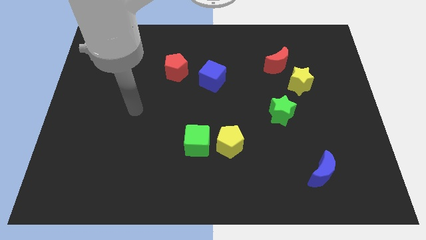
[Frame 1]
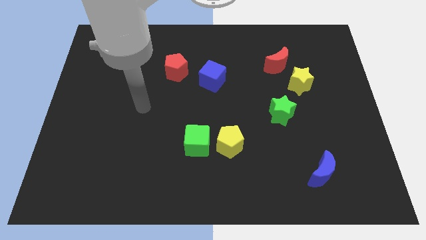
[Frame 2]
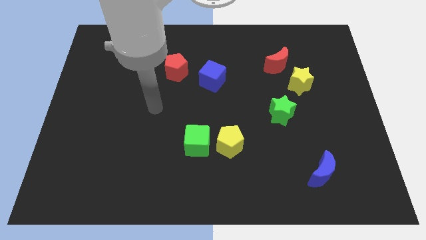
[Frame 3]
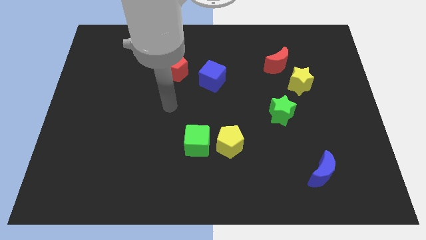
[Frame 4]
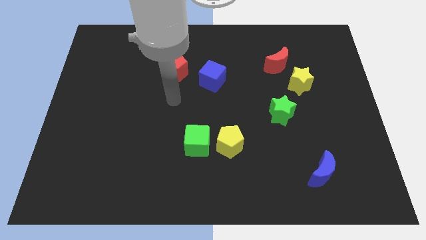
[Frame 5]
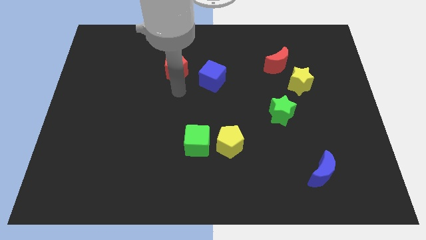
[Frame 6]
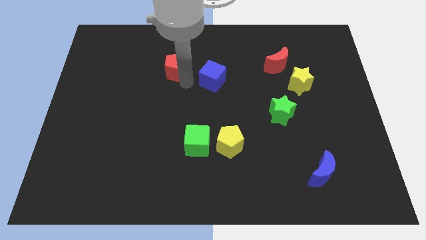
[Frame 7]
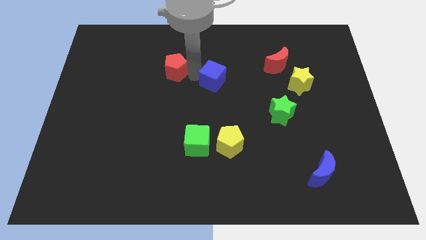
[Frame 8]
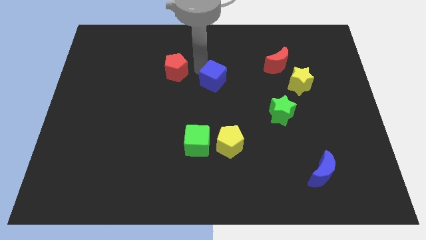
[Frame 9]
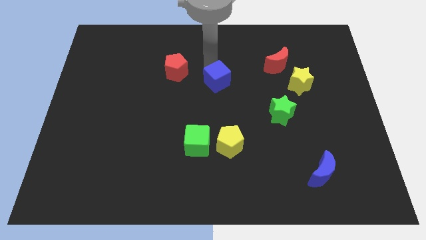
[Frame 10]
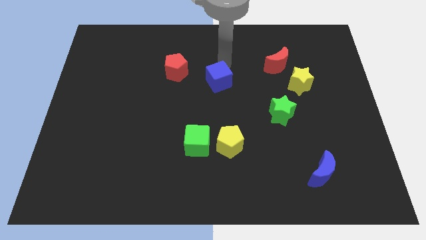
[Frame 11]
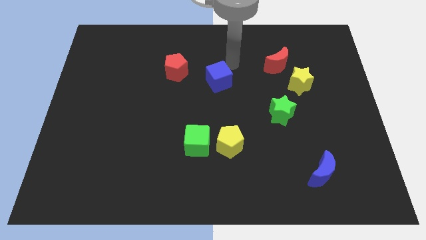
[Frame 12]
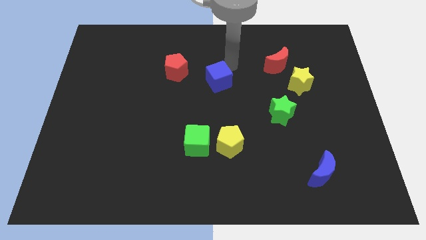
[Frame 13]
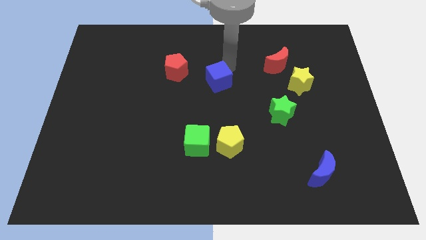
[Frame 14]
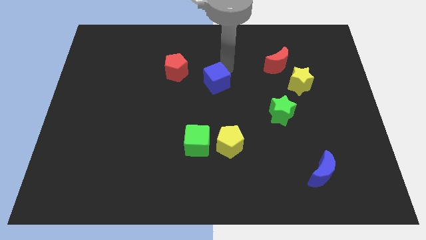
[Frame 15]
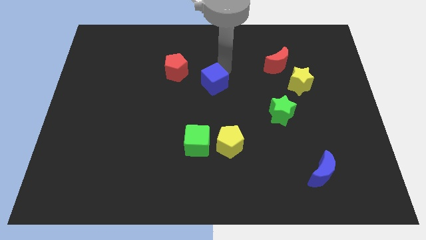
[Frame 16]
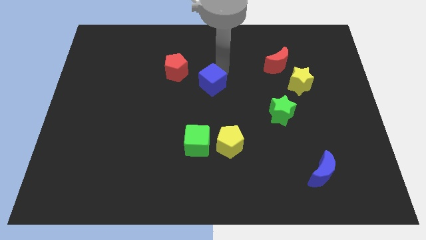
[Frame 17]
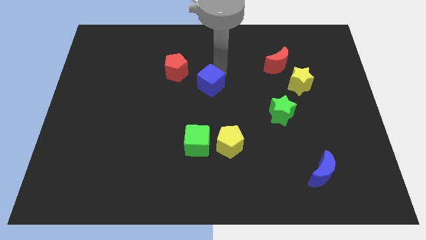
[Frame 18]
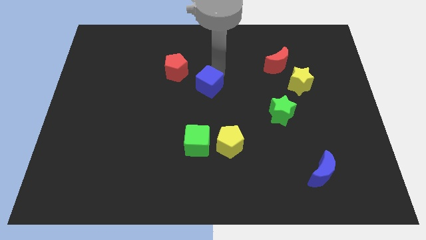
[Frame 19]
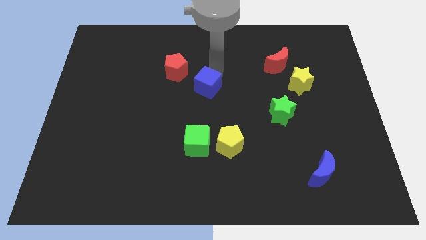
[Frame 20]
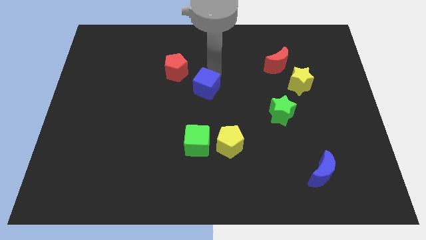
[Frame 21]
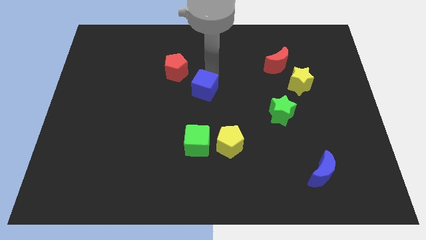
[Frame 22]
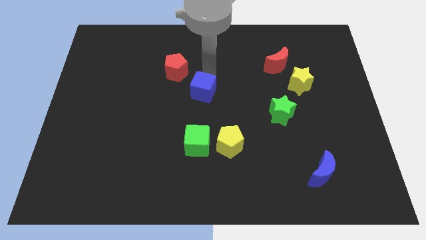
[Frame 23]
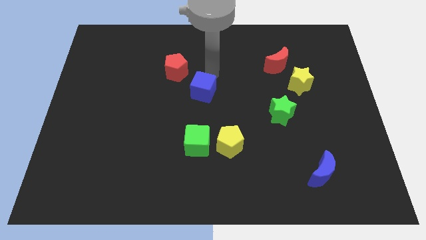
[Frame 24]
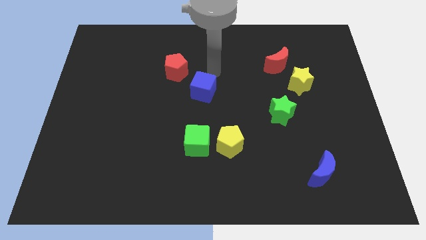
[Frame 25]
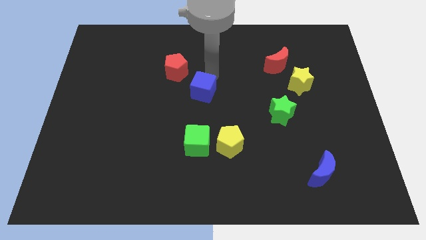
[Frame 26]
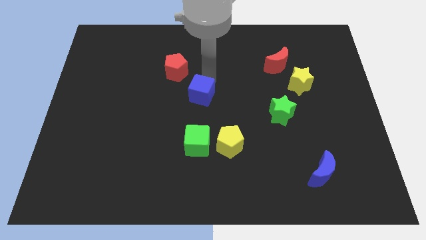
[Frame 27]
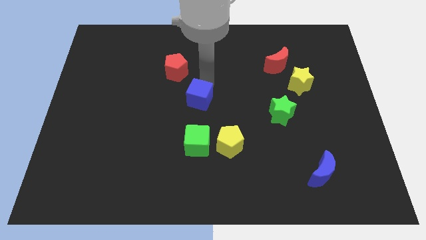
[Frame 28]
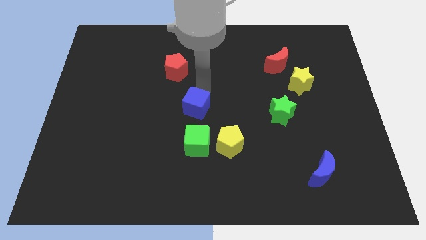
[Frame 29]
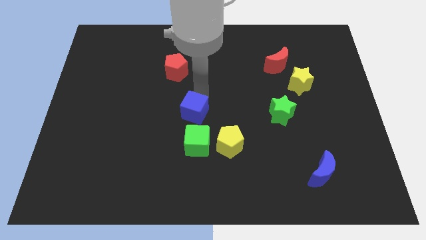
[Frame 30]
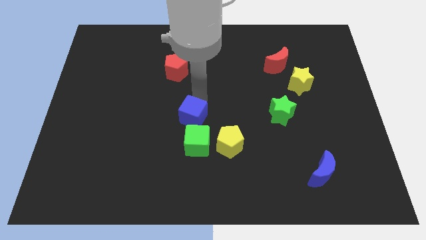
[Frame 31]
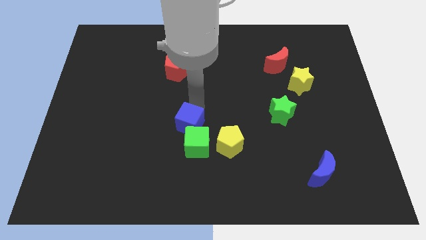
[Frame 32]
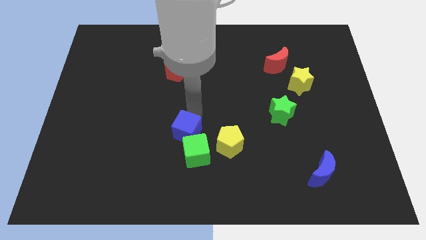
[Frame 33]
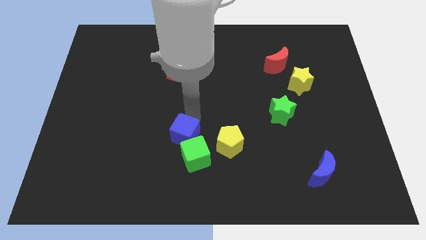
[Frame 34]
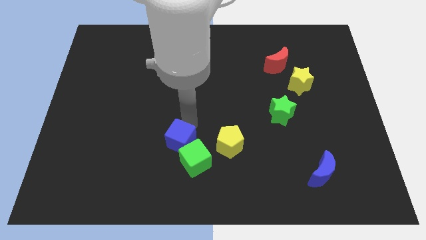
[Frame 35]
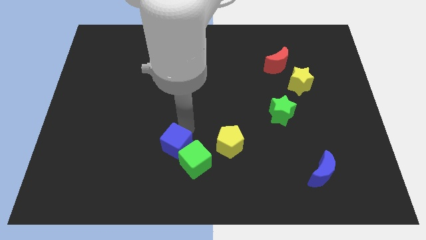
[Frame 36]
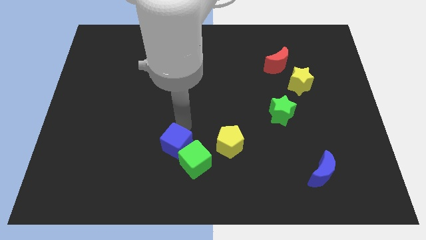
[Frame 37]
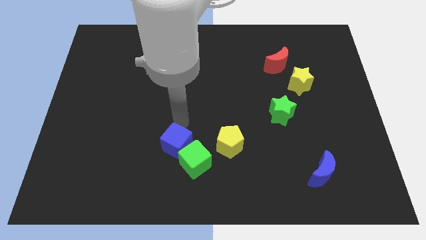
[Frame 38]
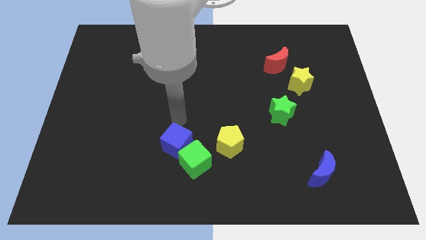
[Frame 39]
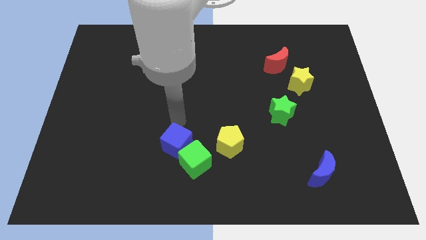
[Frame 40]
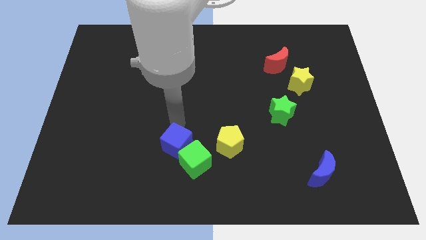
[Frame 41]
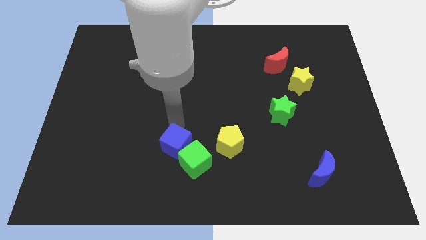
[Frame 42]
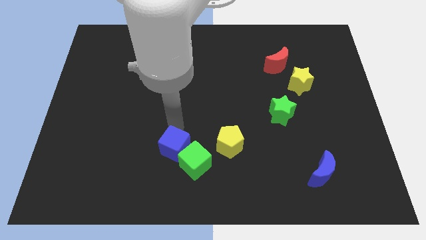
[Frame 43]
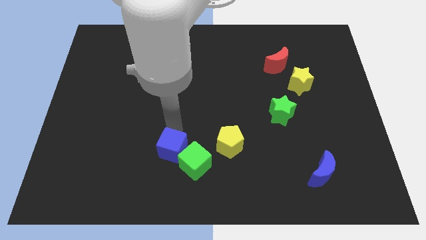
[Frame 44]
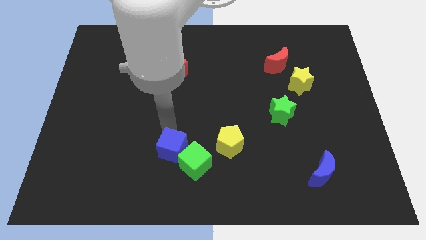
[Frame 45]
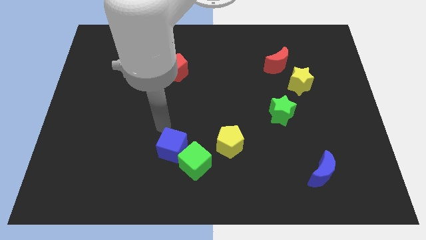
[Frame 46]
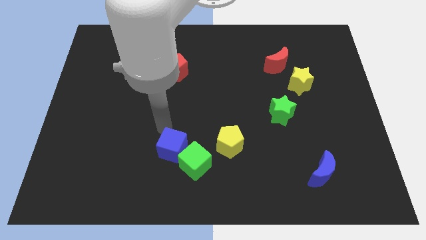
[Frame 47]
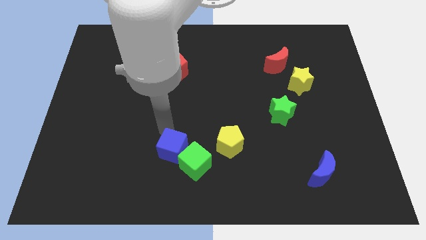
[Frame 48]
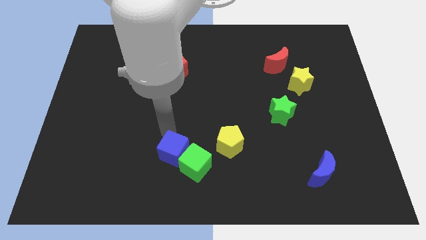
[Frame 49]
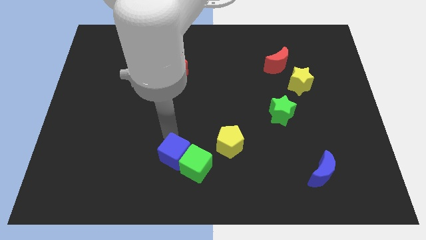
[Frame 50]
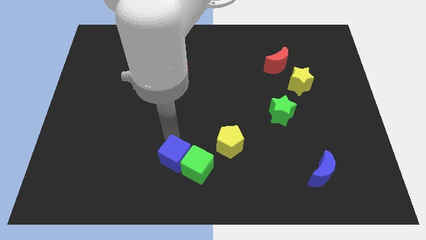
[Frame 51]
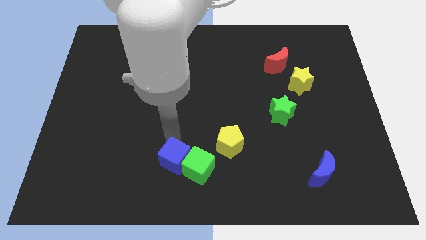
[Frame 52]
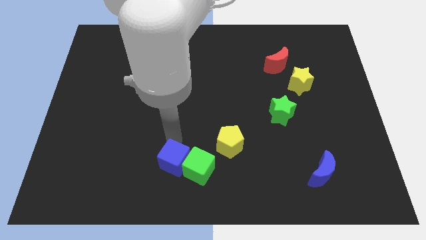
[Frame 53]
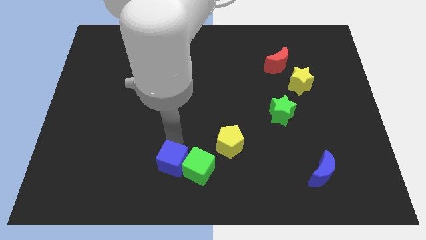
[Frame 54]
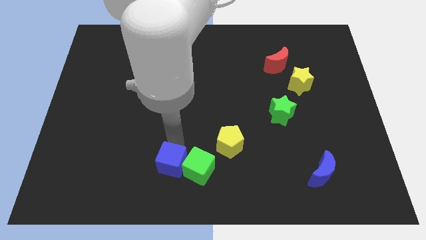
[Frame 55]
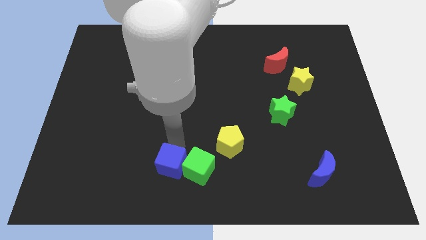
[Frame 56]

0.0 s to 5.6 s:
move the blue cube to the bottom side

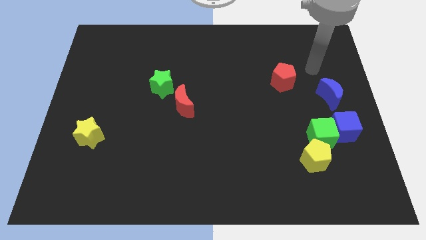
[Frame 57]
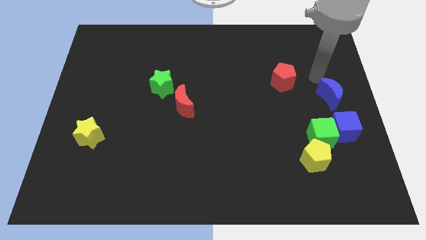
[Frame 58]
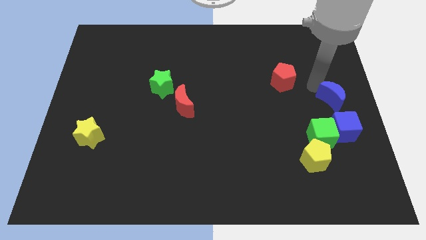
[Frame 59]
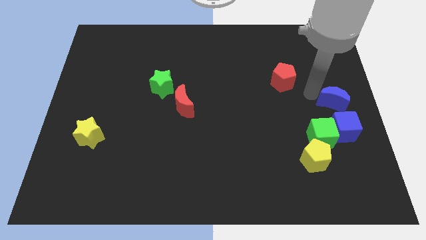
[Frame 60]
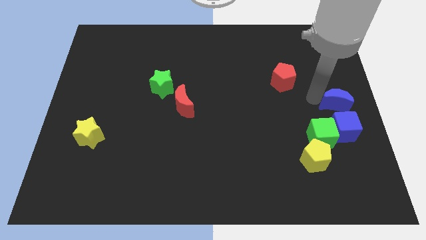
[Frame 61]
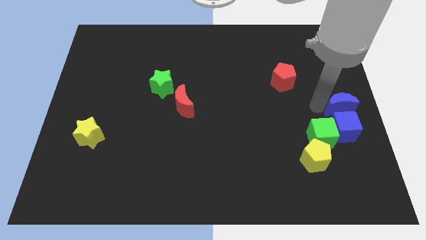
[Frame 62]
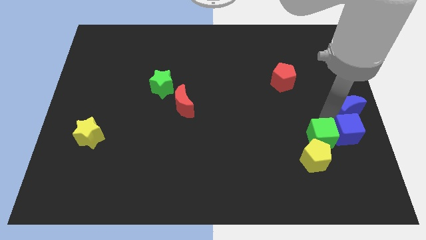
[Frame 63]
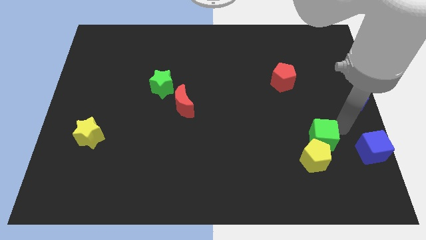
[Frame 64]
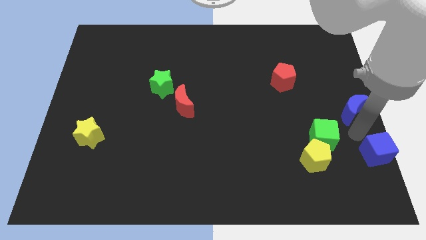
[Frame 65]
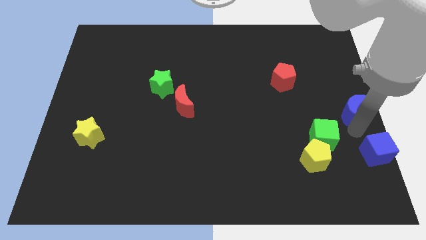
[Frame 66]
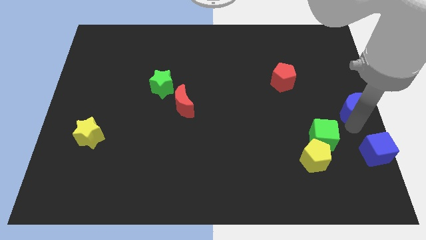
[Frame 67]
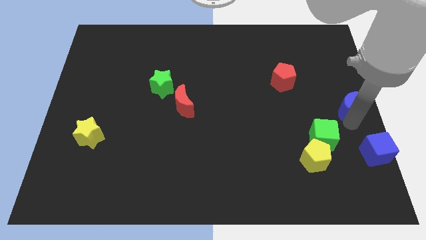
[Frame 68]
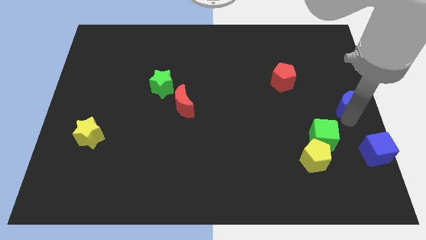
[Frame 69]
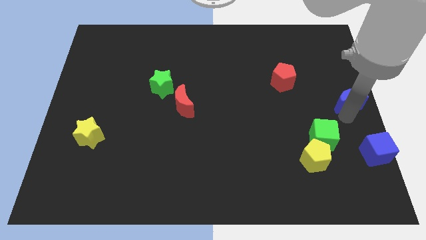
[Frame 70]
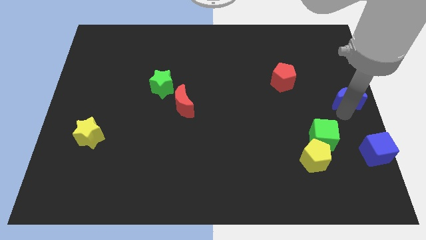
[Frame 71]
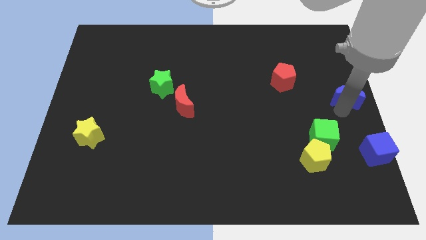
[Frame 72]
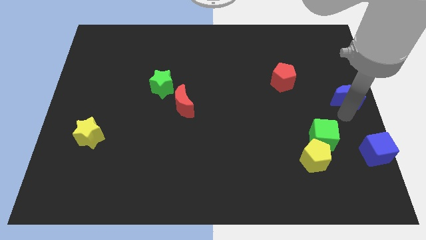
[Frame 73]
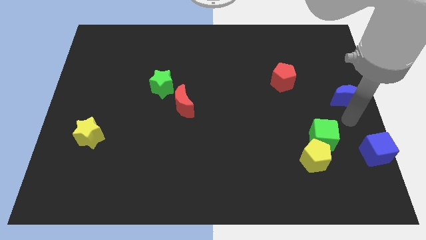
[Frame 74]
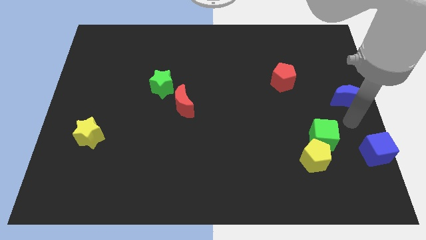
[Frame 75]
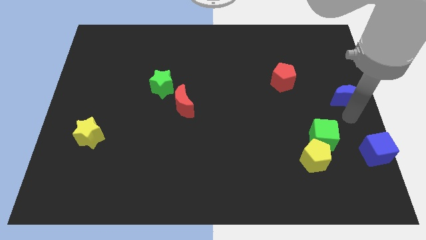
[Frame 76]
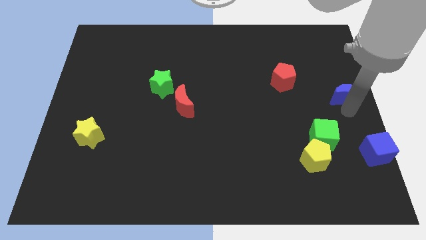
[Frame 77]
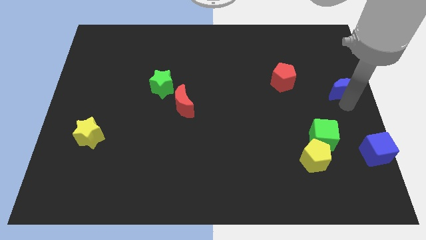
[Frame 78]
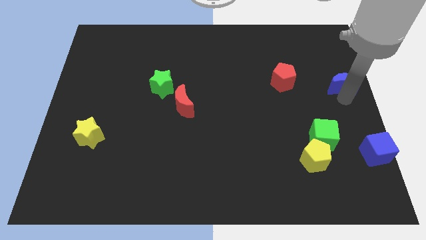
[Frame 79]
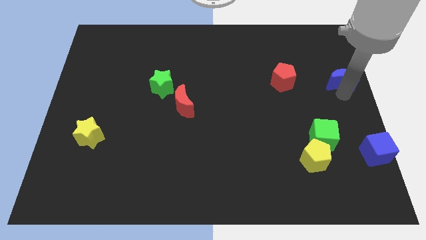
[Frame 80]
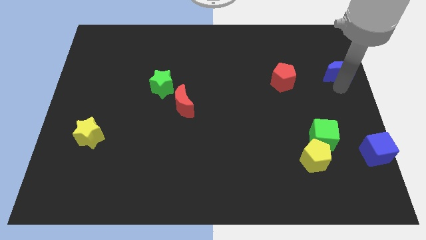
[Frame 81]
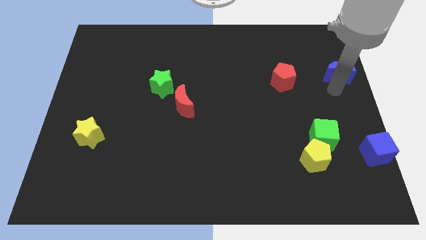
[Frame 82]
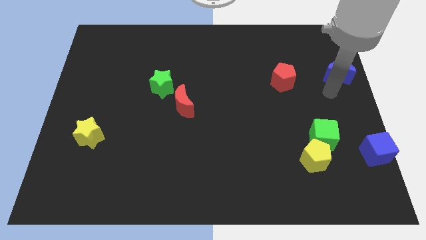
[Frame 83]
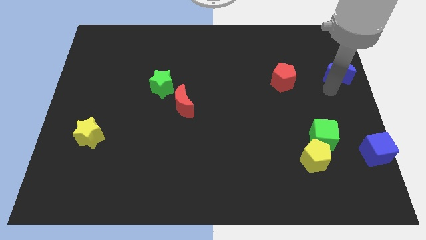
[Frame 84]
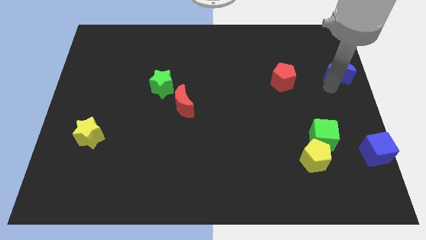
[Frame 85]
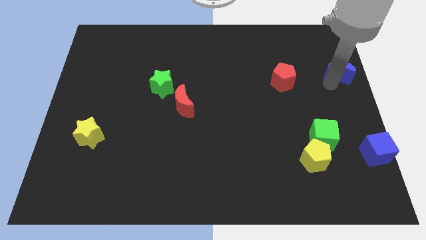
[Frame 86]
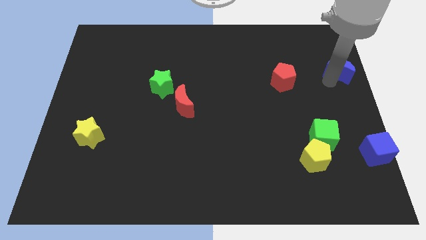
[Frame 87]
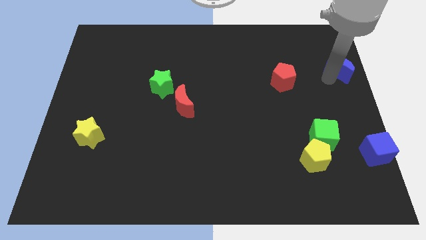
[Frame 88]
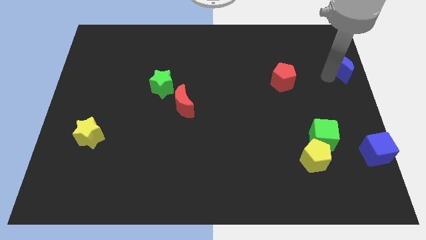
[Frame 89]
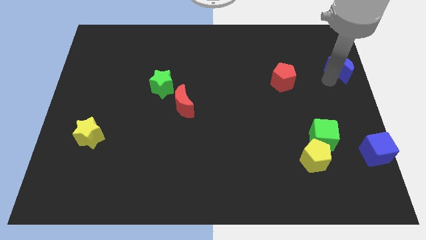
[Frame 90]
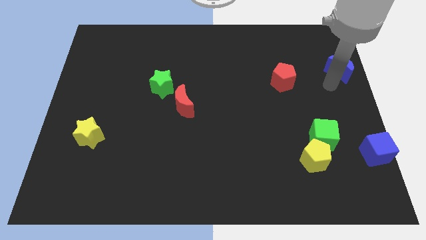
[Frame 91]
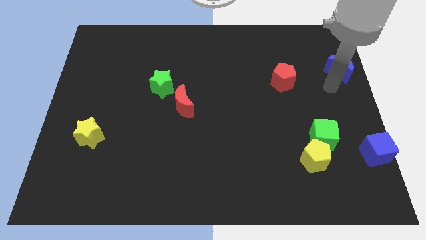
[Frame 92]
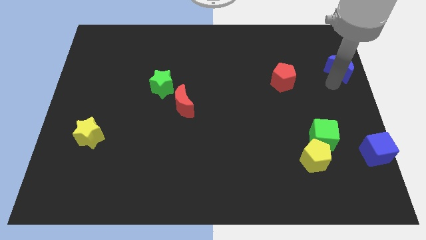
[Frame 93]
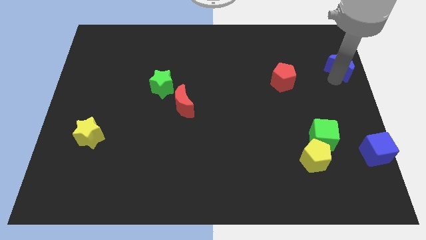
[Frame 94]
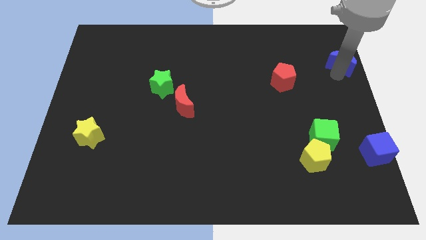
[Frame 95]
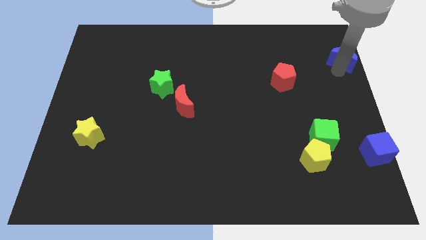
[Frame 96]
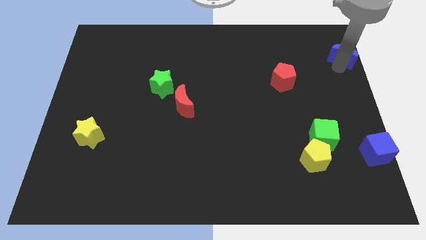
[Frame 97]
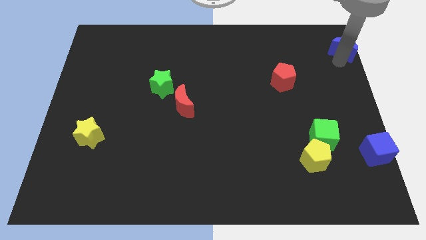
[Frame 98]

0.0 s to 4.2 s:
move the blue moon to the top right of the board
